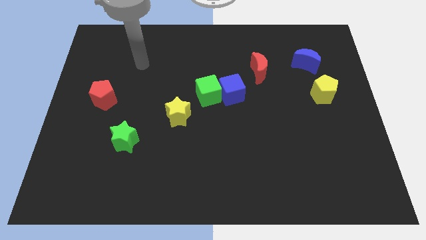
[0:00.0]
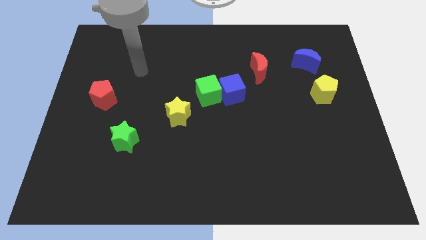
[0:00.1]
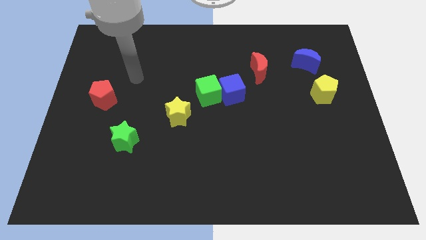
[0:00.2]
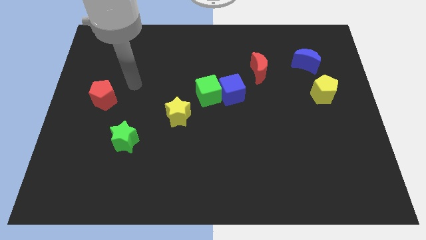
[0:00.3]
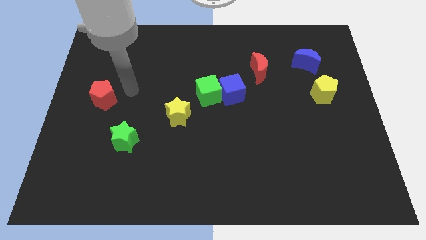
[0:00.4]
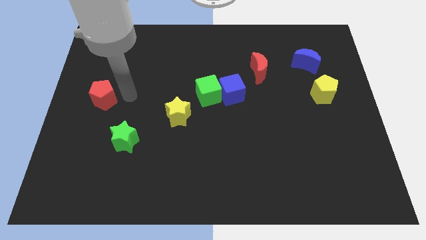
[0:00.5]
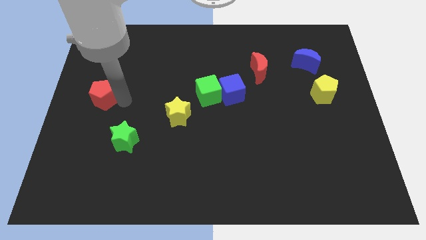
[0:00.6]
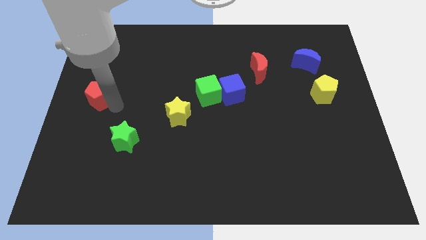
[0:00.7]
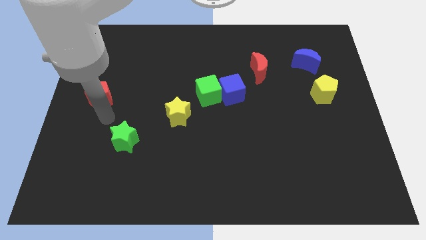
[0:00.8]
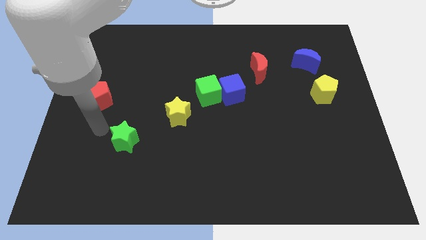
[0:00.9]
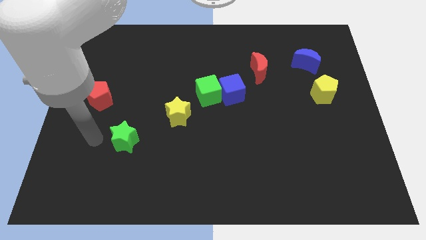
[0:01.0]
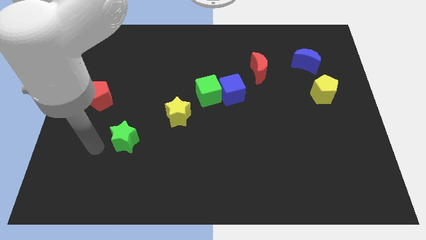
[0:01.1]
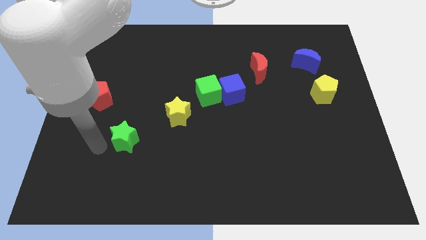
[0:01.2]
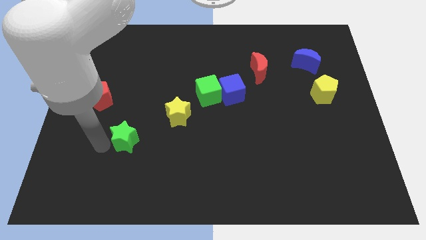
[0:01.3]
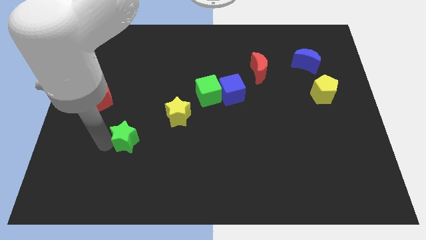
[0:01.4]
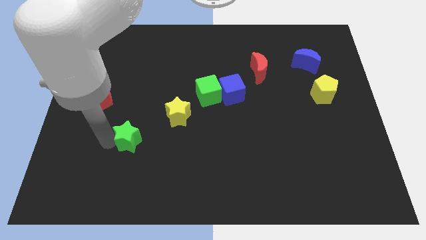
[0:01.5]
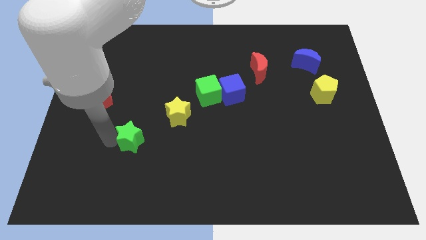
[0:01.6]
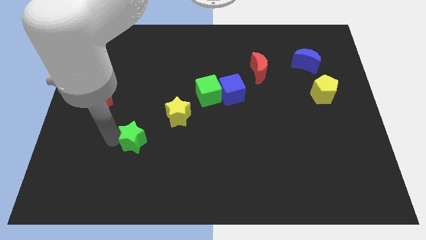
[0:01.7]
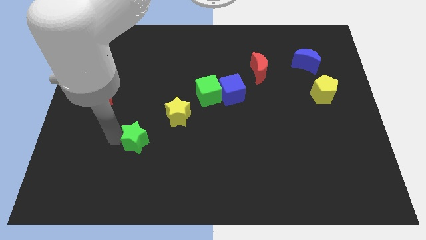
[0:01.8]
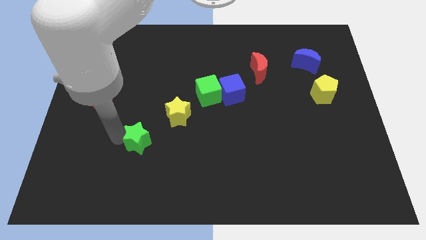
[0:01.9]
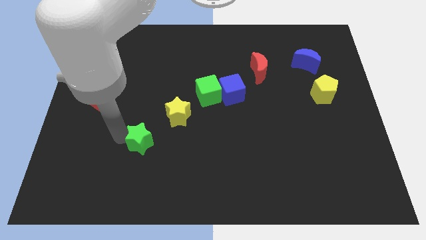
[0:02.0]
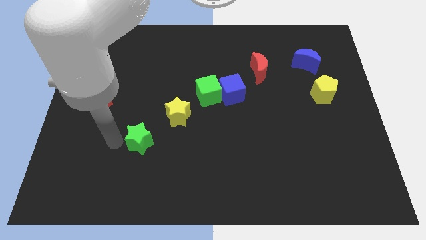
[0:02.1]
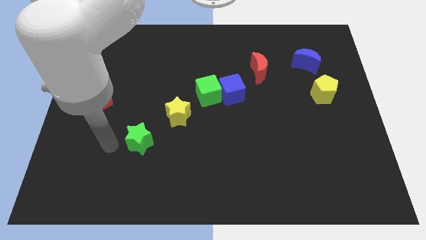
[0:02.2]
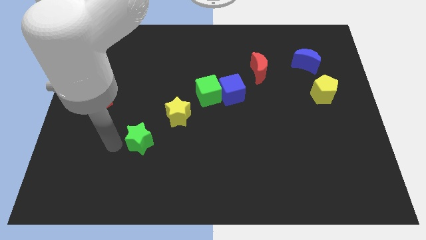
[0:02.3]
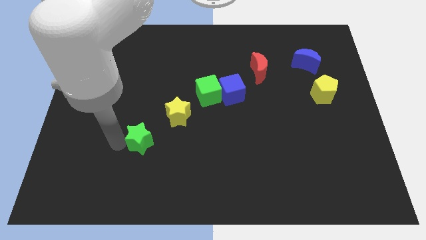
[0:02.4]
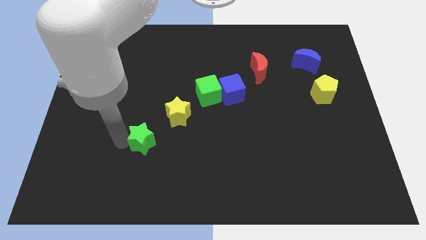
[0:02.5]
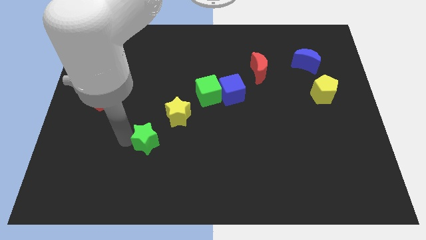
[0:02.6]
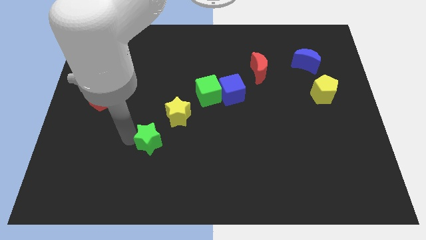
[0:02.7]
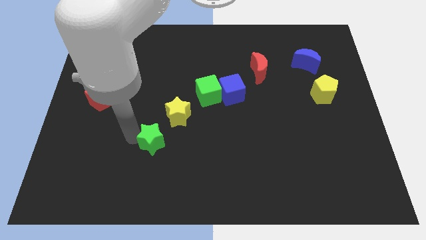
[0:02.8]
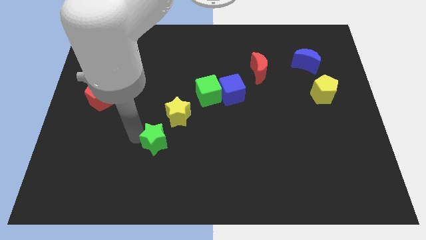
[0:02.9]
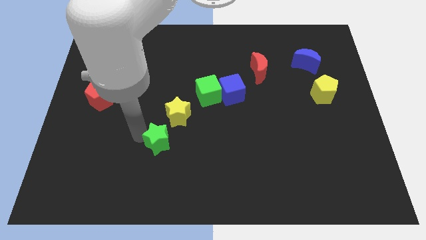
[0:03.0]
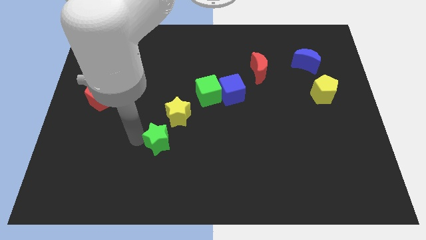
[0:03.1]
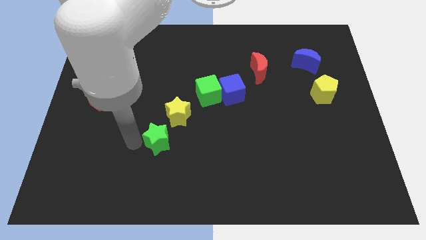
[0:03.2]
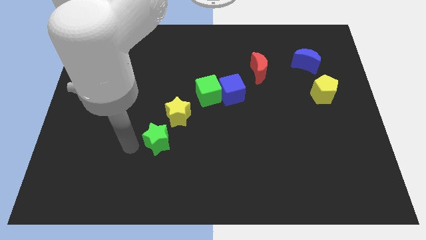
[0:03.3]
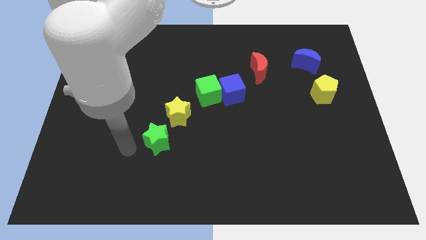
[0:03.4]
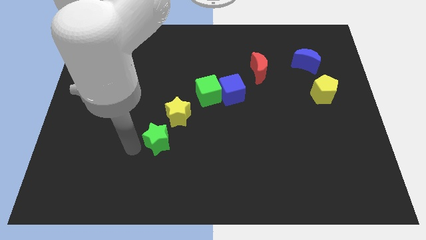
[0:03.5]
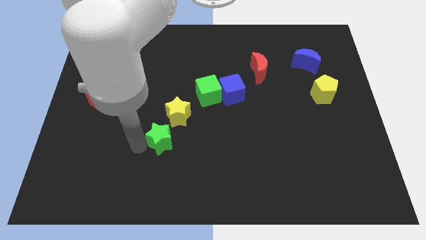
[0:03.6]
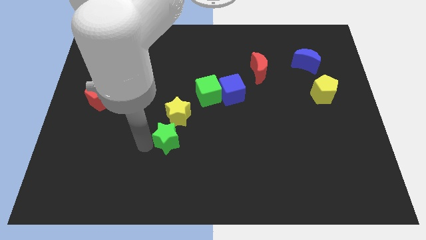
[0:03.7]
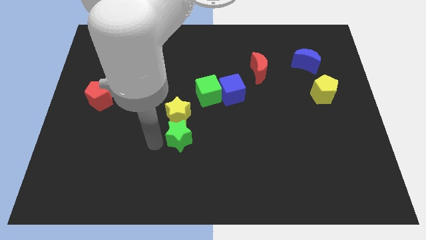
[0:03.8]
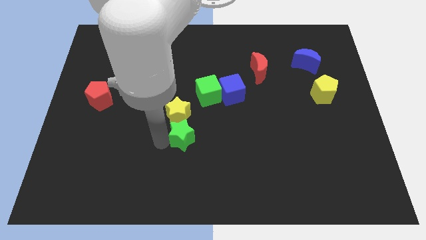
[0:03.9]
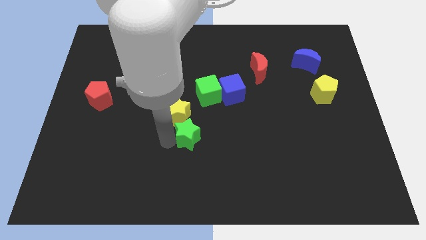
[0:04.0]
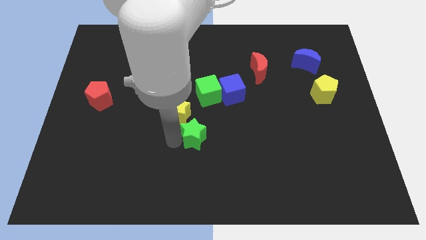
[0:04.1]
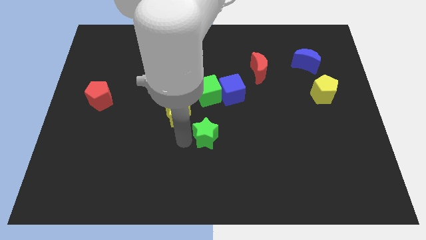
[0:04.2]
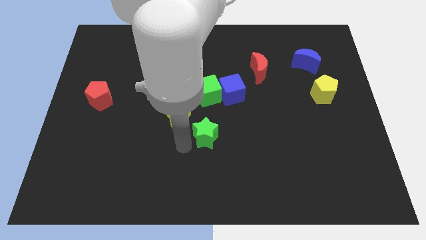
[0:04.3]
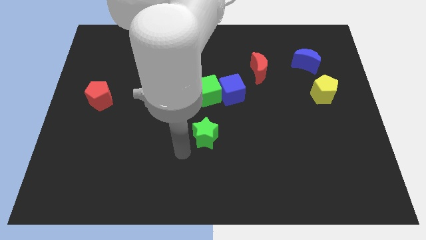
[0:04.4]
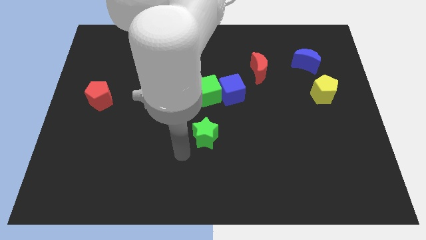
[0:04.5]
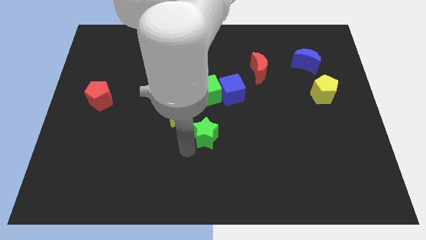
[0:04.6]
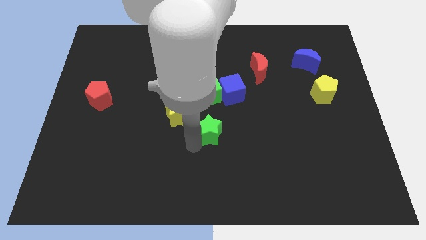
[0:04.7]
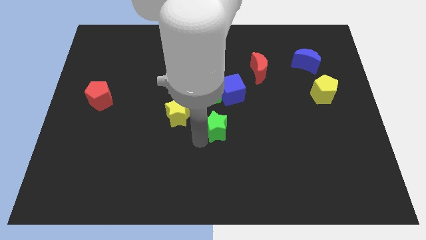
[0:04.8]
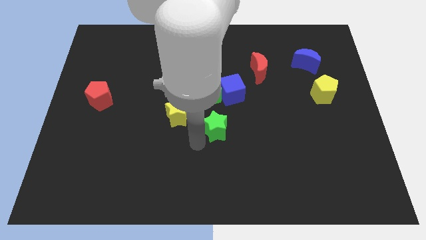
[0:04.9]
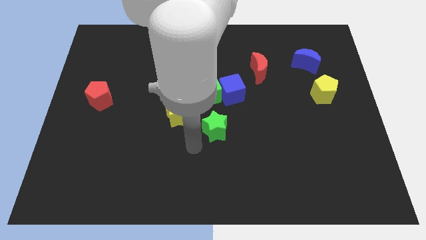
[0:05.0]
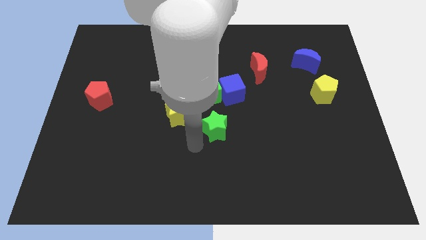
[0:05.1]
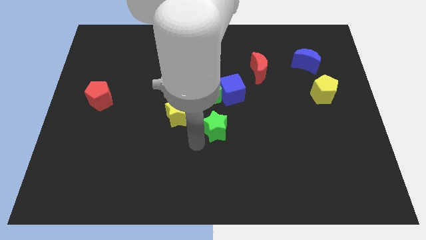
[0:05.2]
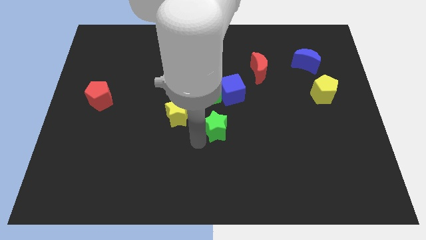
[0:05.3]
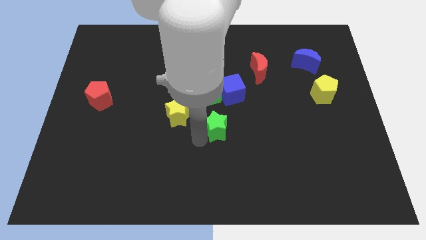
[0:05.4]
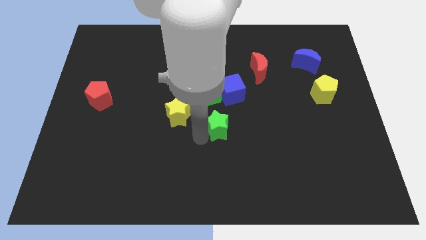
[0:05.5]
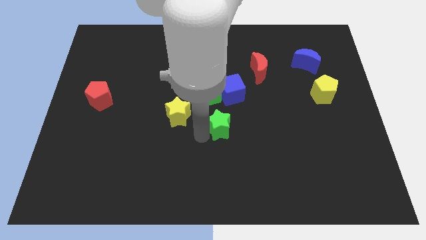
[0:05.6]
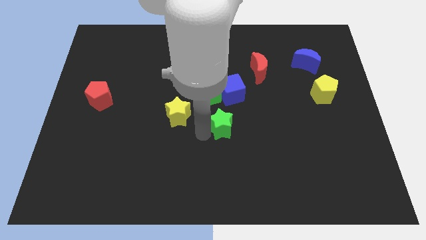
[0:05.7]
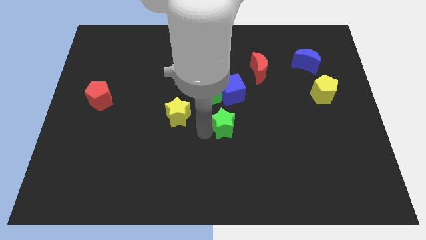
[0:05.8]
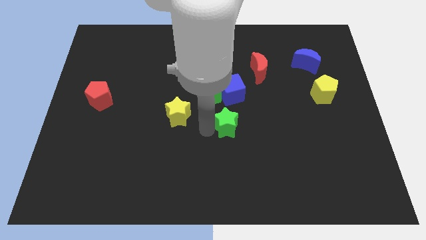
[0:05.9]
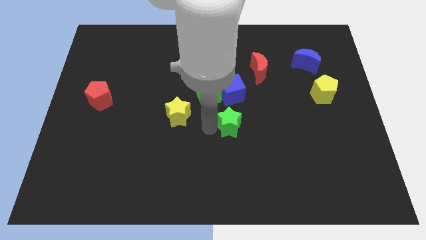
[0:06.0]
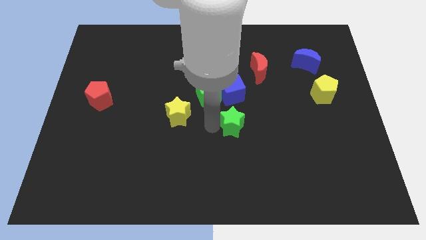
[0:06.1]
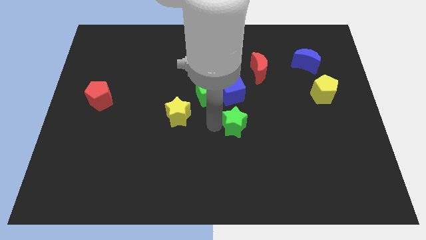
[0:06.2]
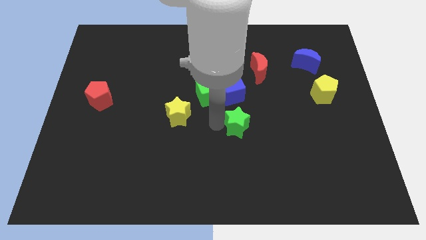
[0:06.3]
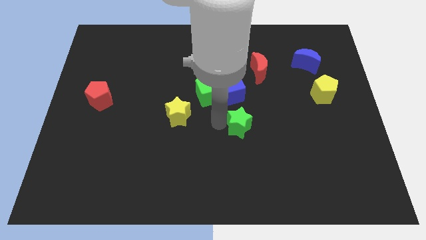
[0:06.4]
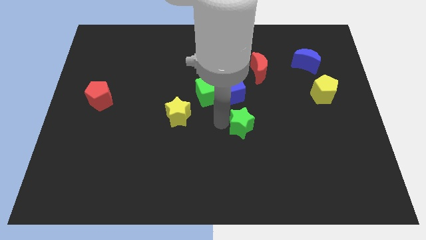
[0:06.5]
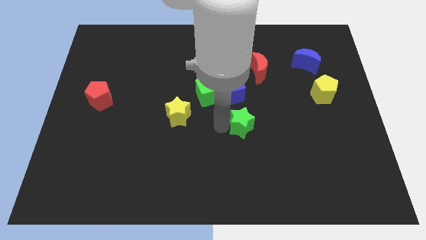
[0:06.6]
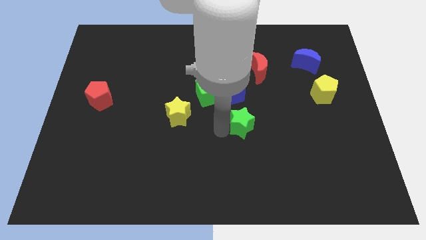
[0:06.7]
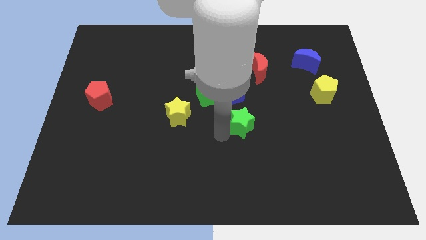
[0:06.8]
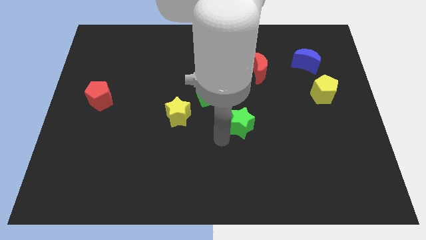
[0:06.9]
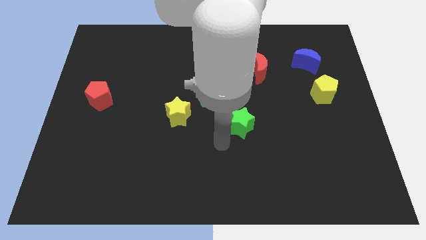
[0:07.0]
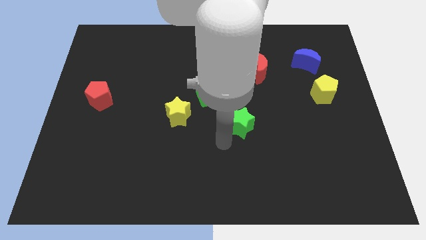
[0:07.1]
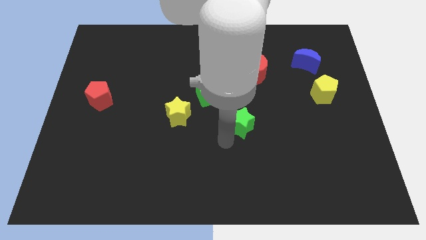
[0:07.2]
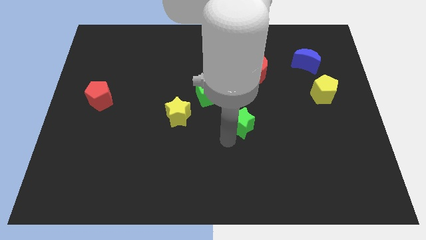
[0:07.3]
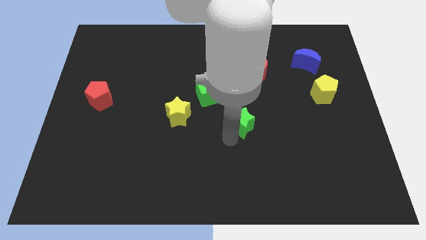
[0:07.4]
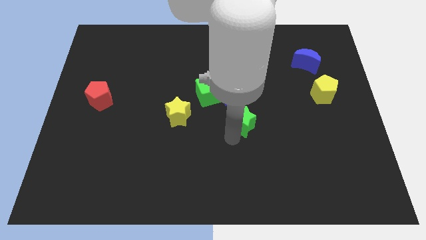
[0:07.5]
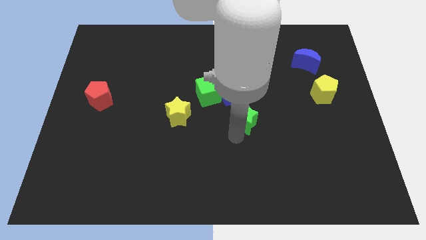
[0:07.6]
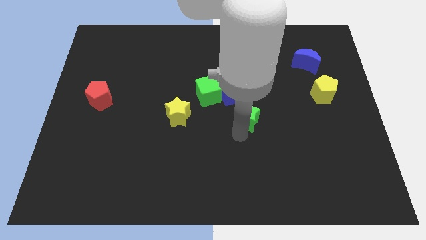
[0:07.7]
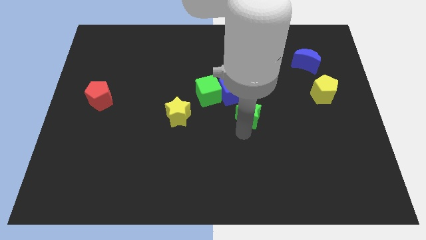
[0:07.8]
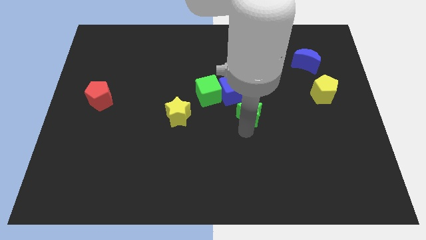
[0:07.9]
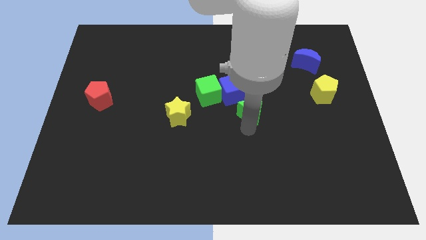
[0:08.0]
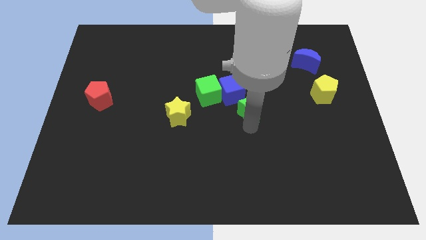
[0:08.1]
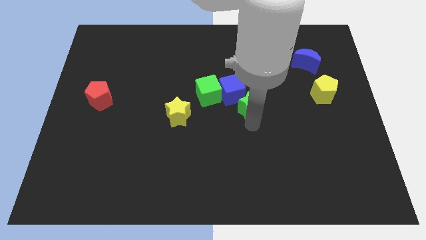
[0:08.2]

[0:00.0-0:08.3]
push the green star to the right of the green cube
